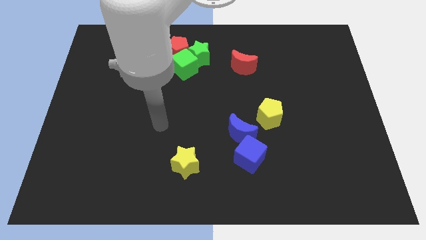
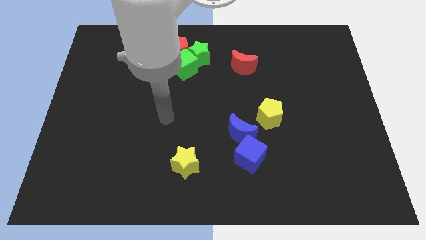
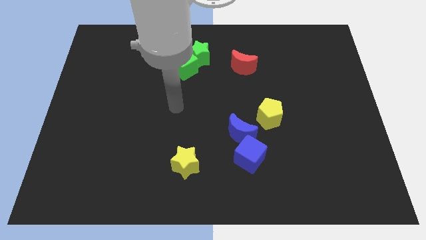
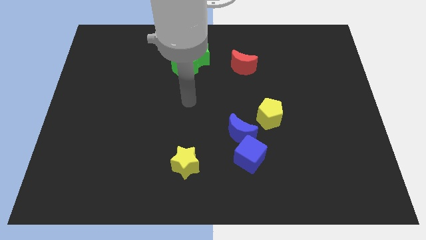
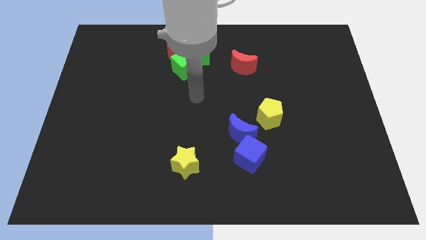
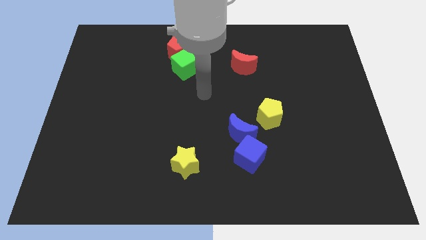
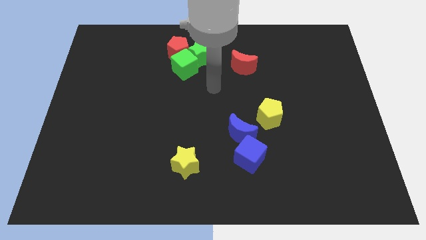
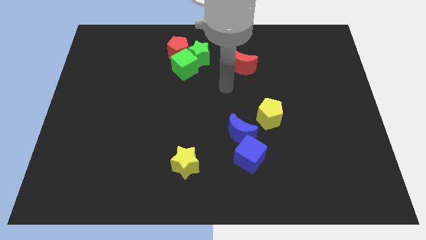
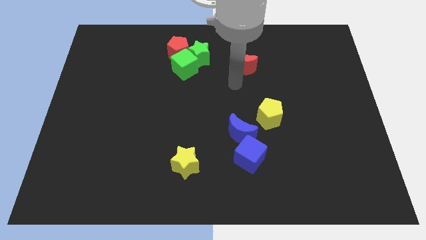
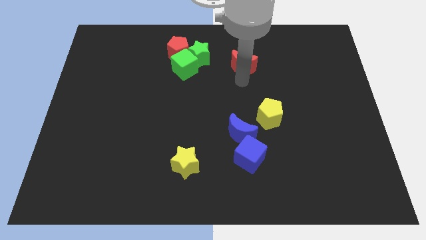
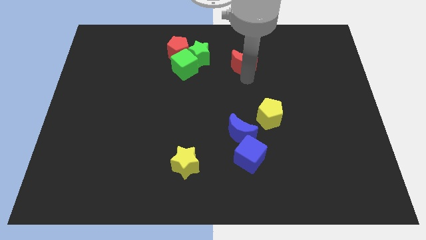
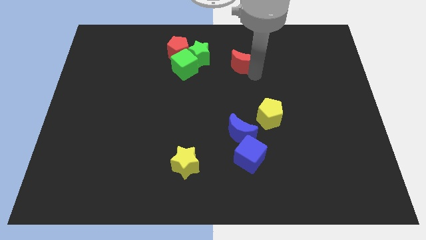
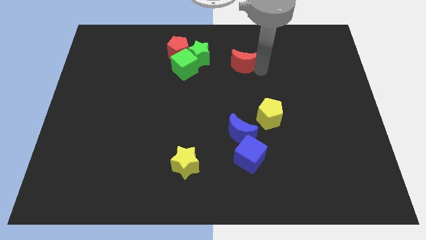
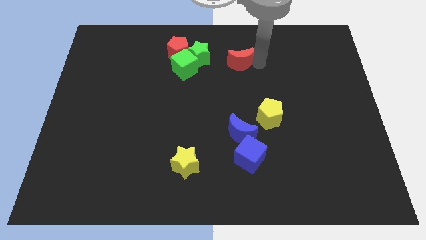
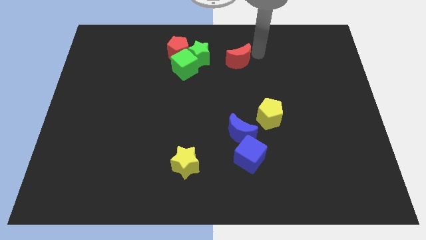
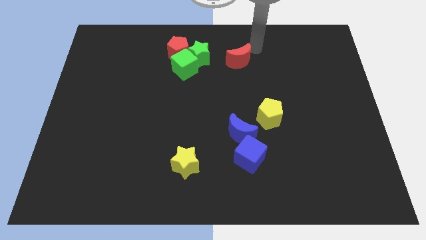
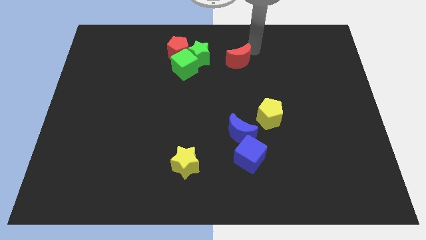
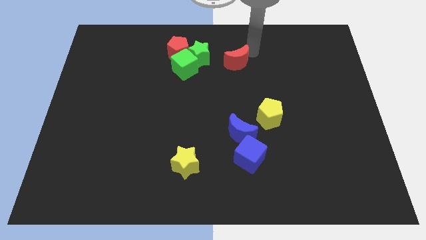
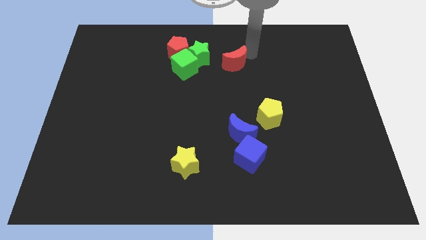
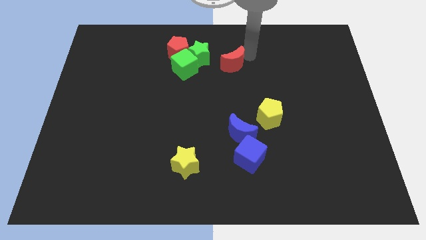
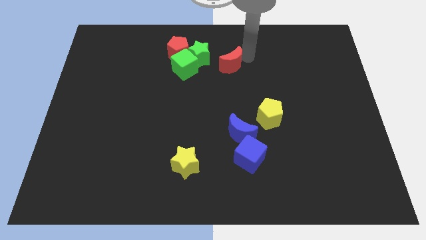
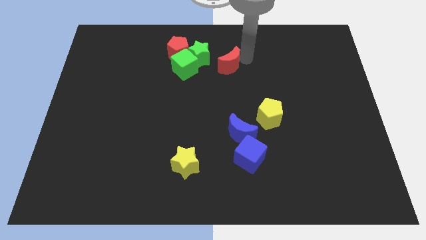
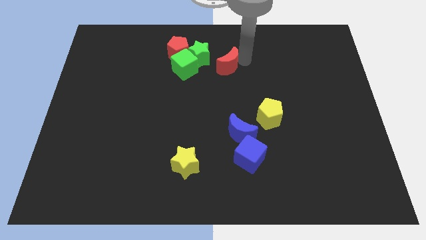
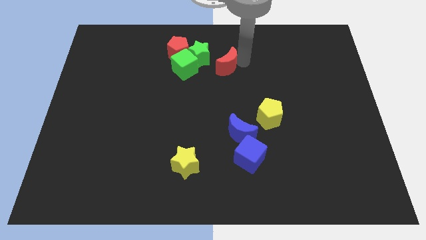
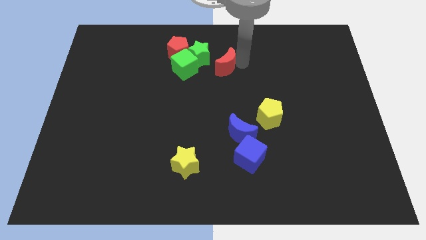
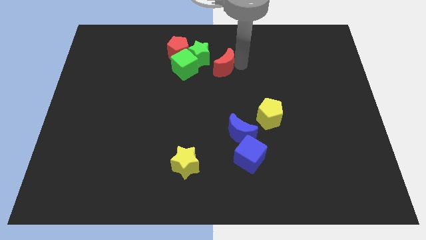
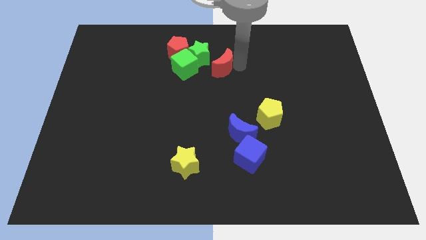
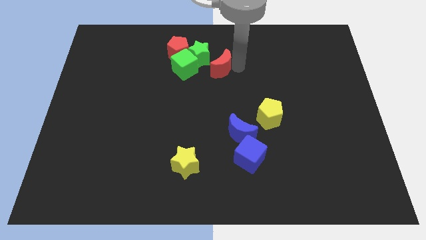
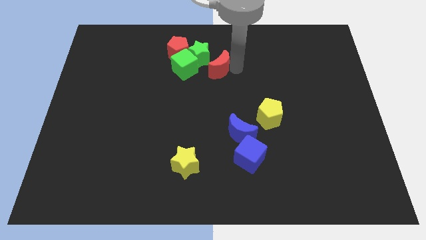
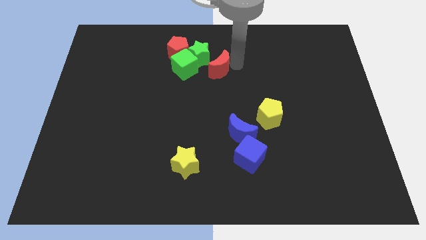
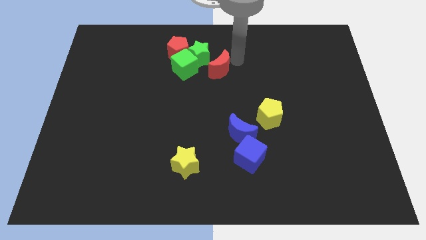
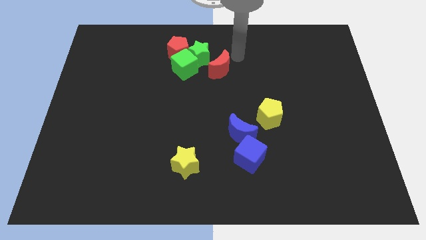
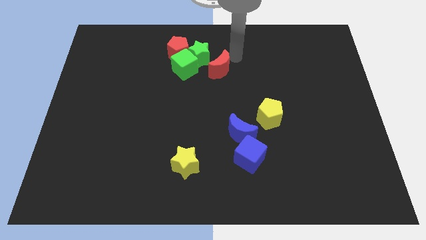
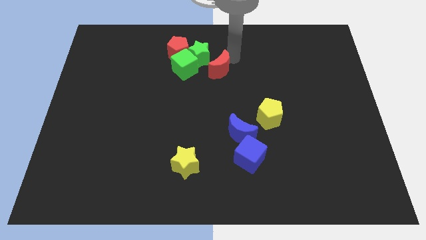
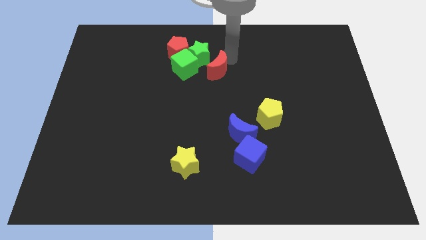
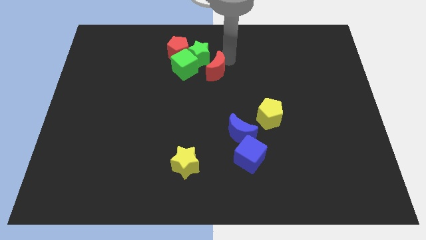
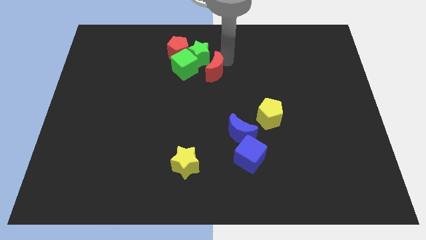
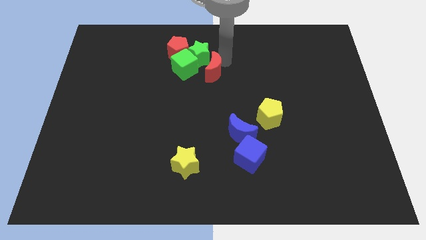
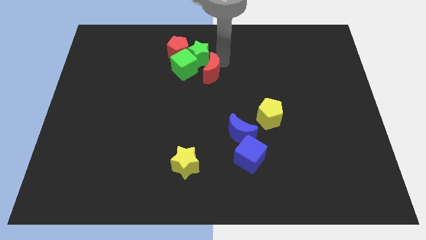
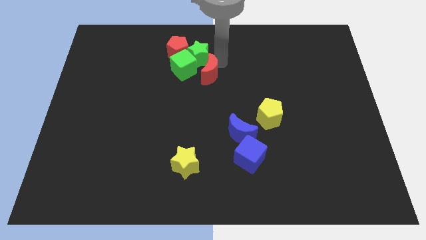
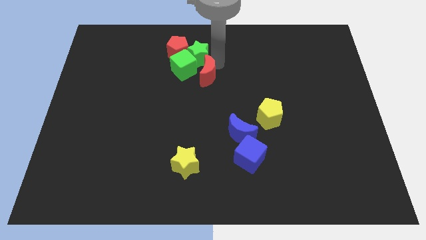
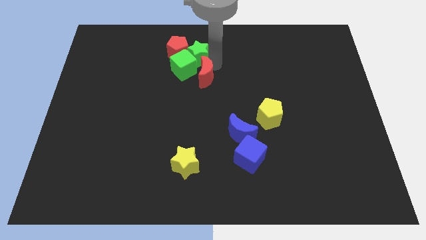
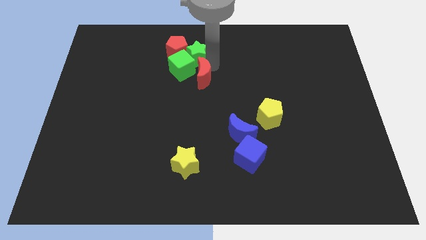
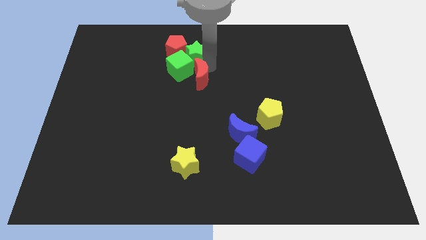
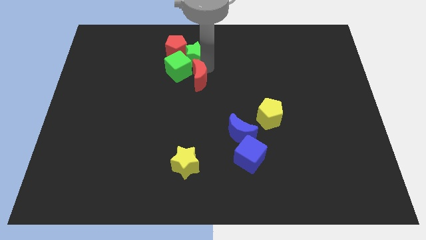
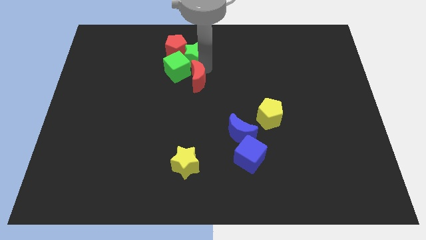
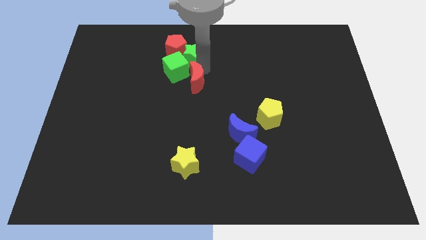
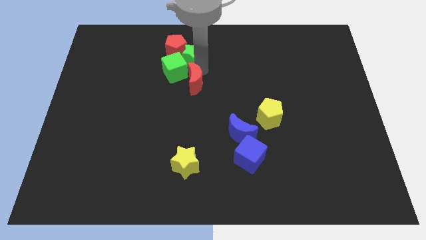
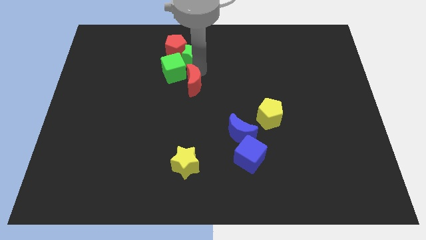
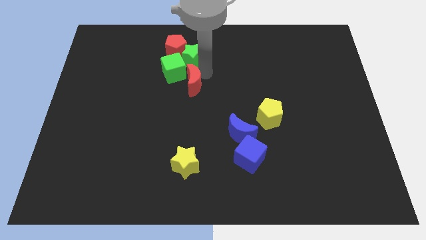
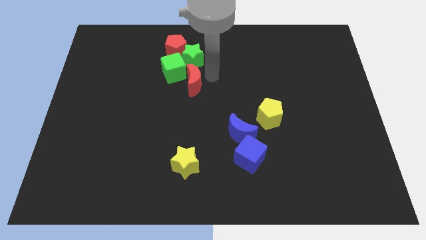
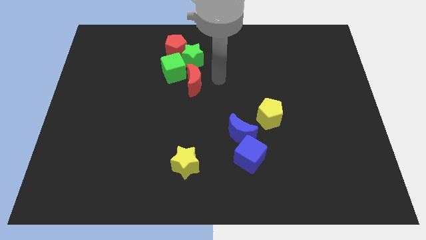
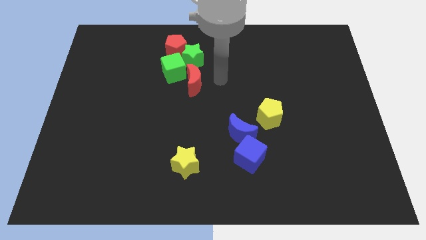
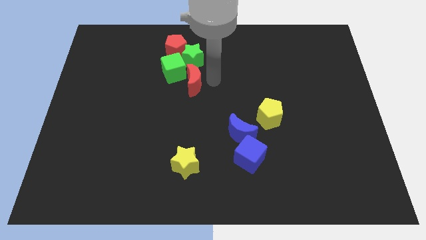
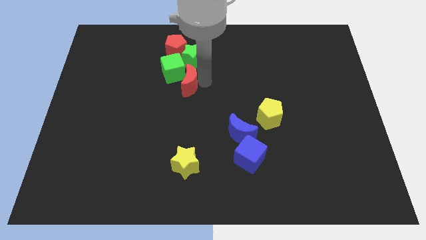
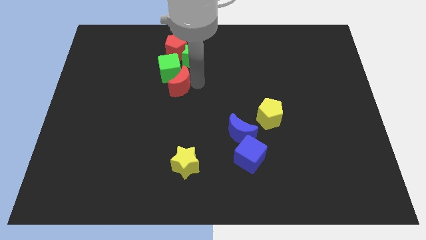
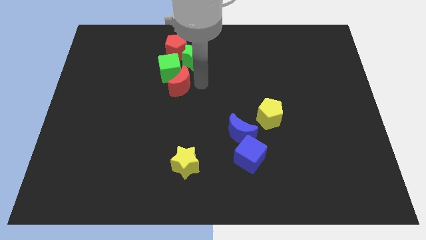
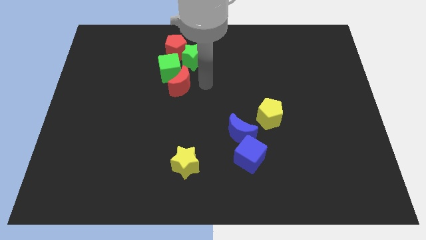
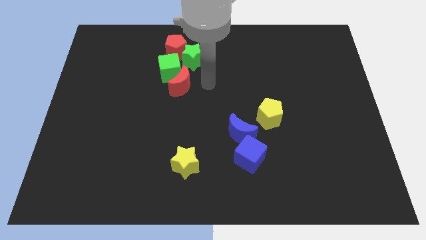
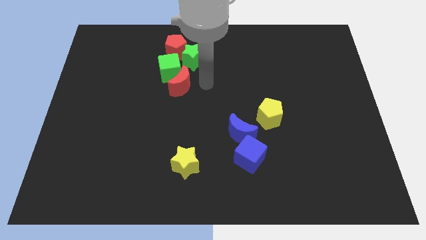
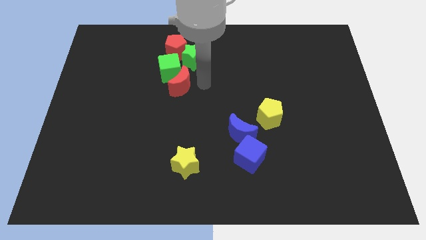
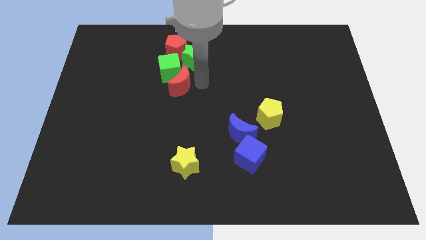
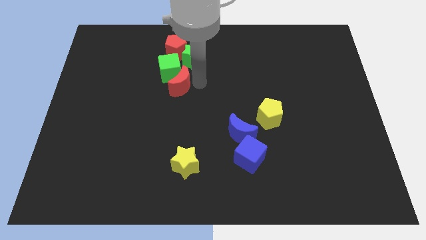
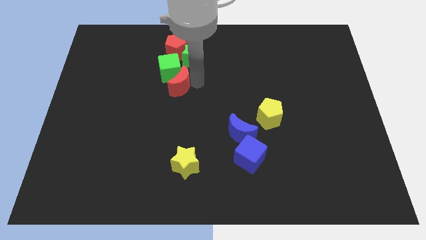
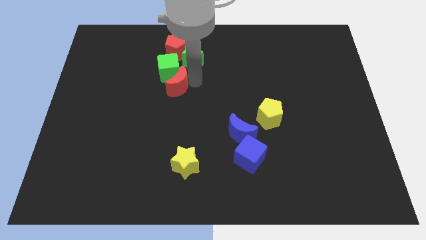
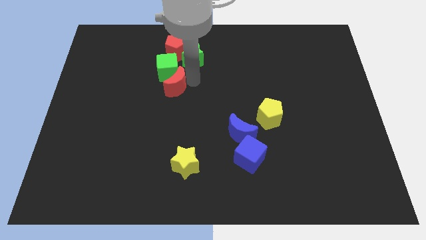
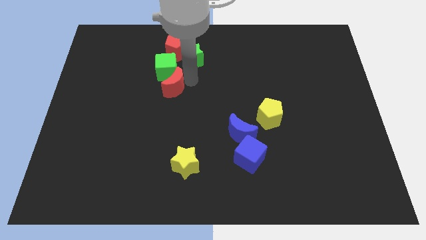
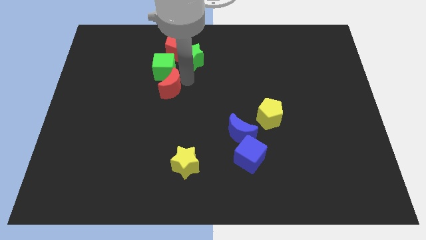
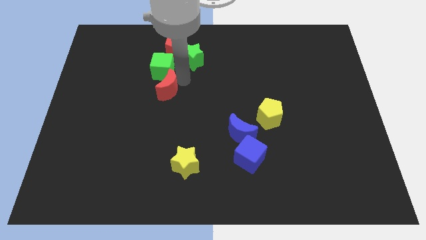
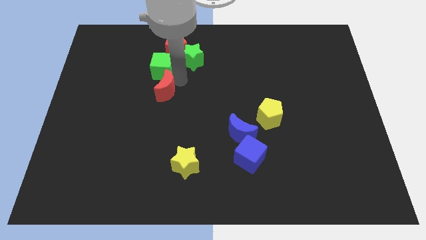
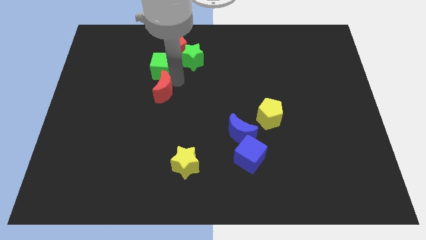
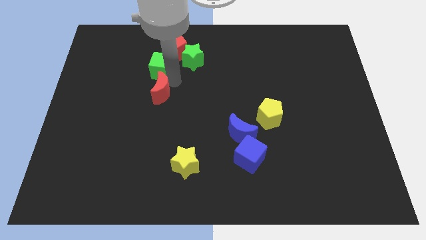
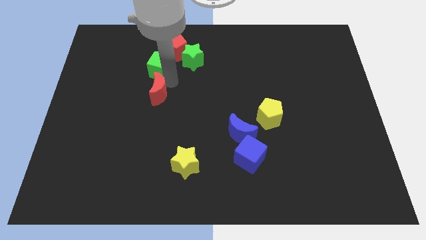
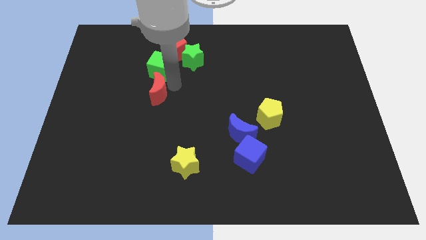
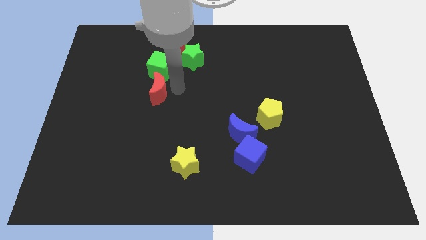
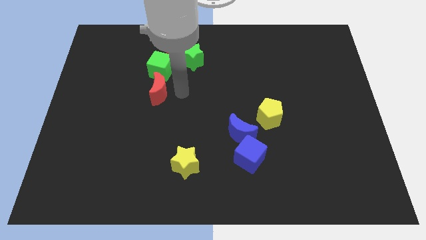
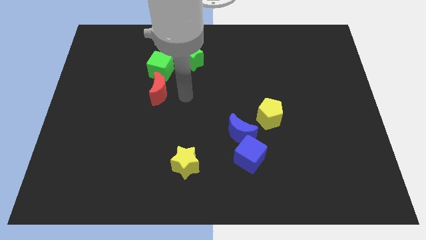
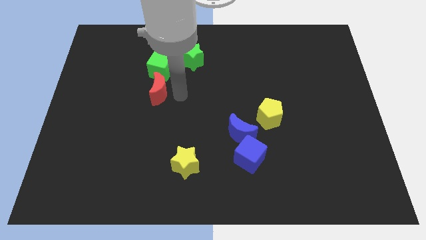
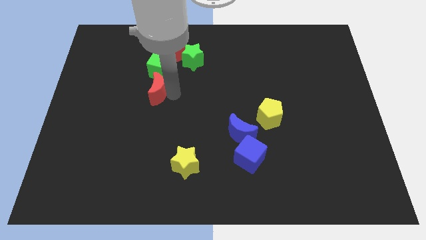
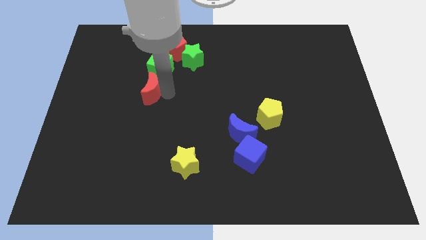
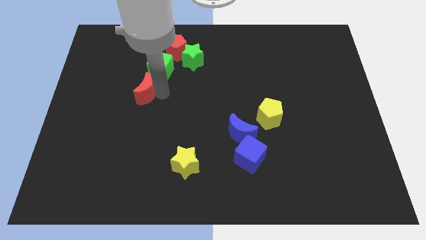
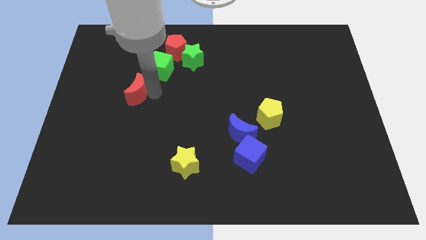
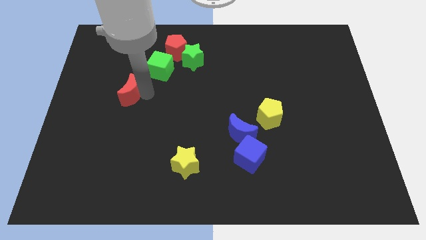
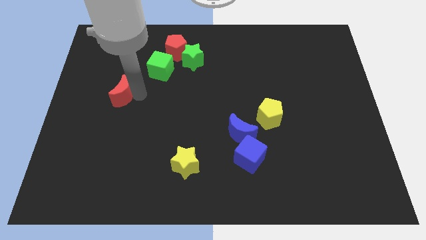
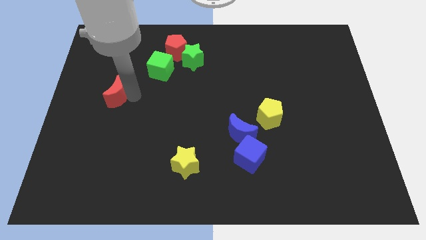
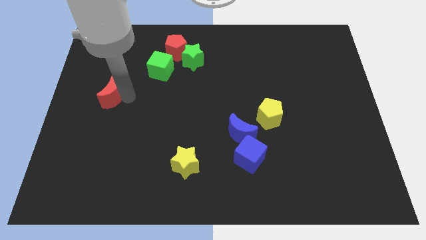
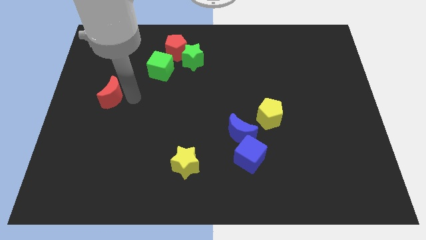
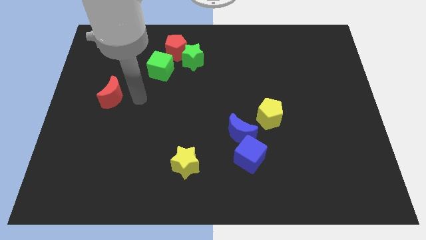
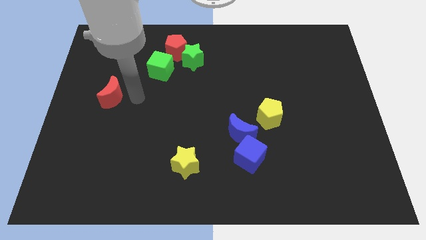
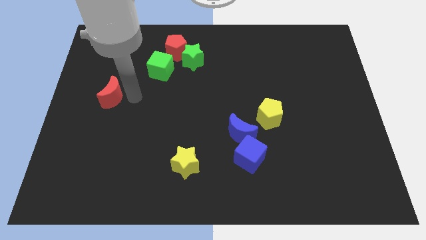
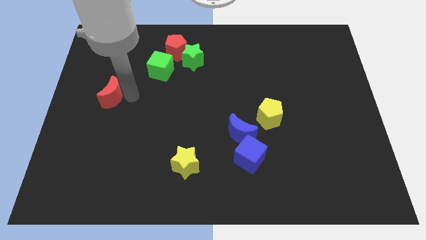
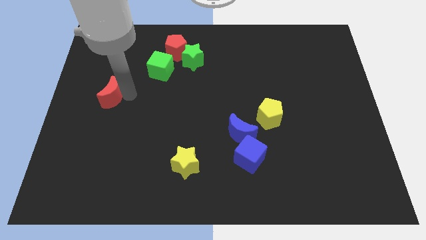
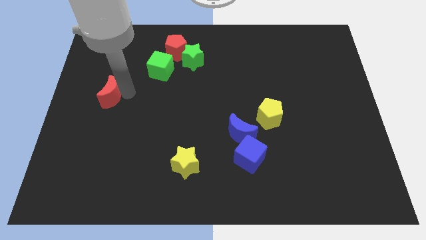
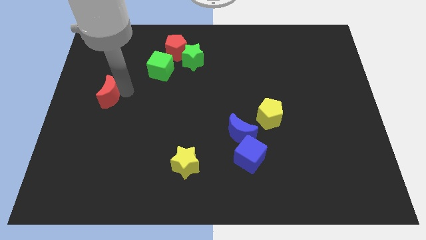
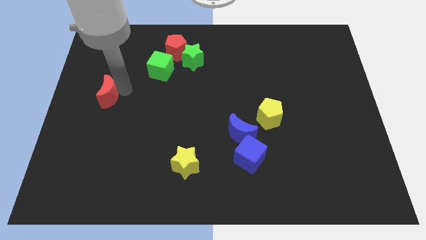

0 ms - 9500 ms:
slide the red moon to the center left
